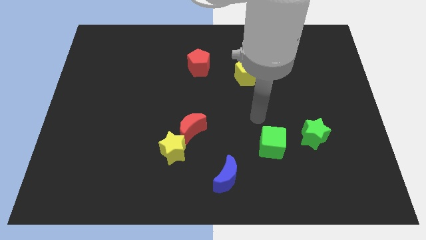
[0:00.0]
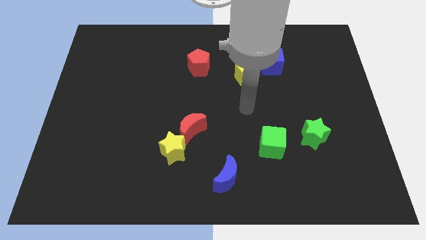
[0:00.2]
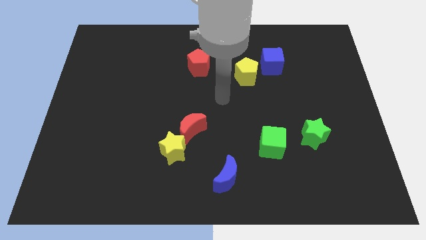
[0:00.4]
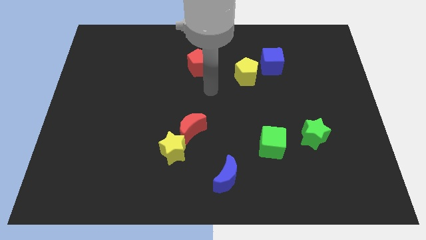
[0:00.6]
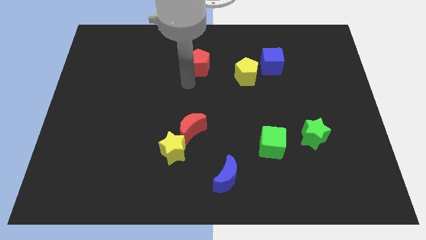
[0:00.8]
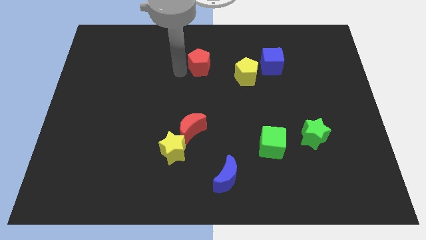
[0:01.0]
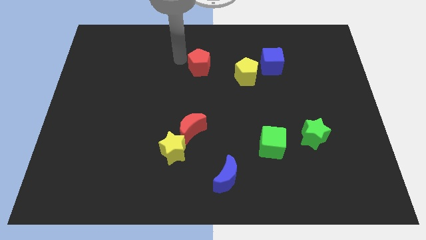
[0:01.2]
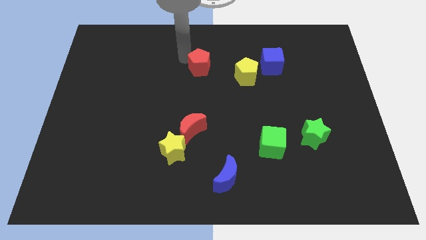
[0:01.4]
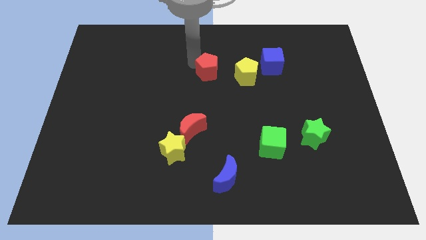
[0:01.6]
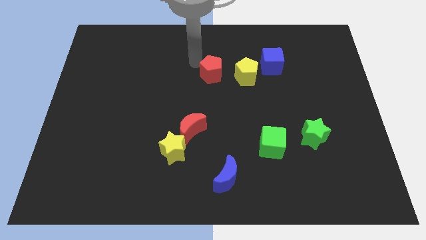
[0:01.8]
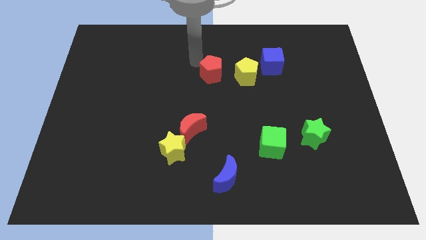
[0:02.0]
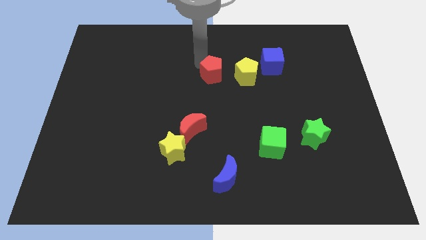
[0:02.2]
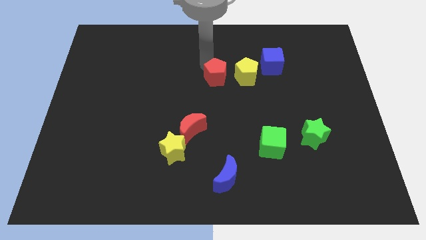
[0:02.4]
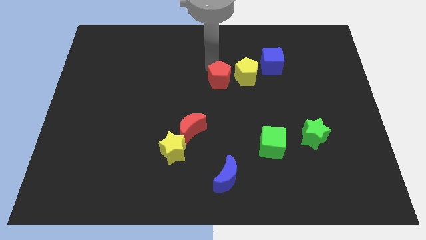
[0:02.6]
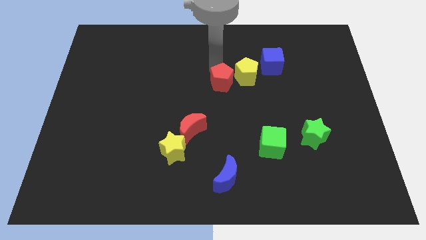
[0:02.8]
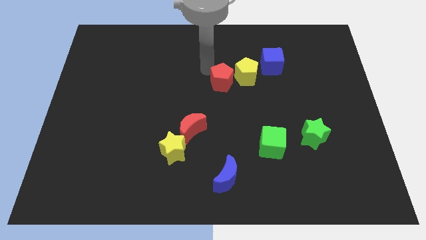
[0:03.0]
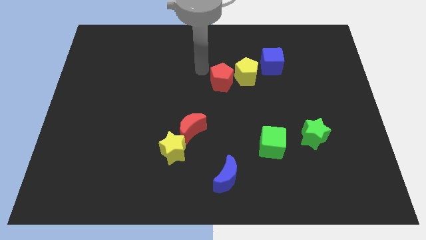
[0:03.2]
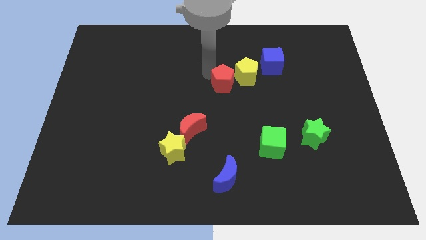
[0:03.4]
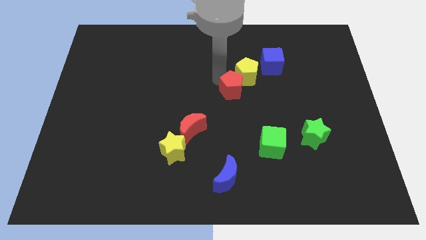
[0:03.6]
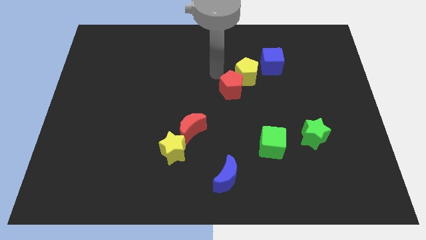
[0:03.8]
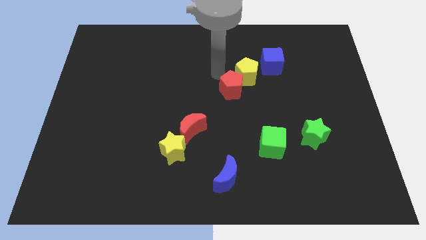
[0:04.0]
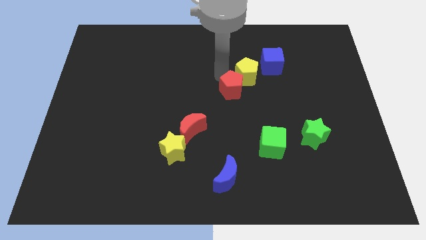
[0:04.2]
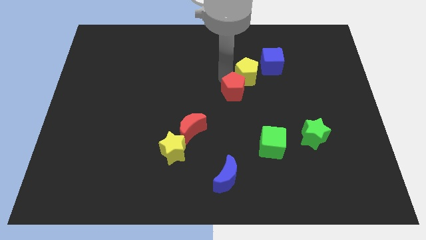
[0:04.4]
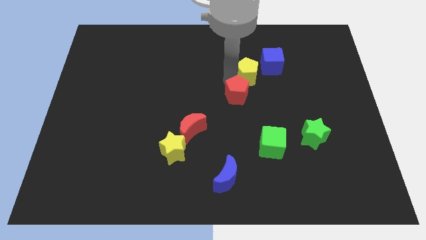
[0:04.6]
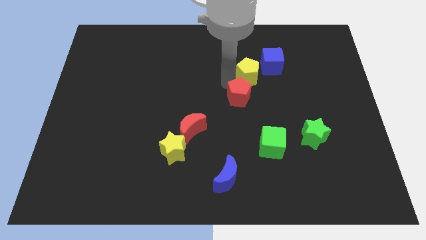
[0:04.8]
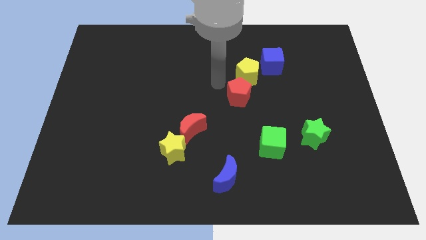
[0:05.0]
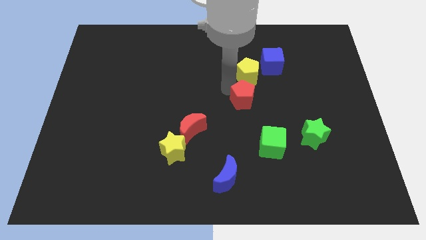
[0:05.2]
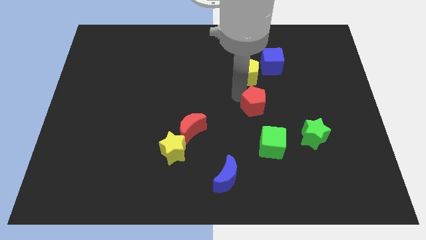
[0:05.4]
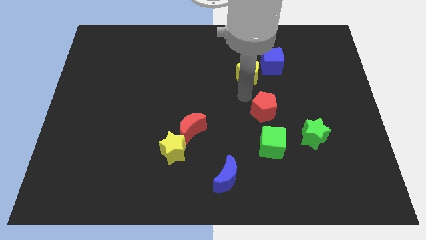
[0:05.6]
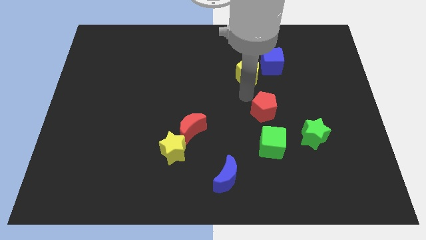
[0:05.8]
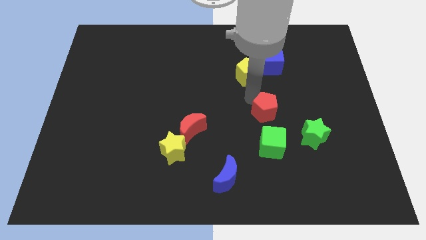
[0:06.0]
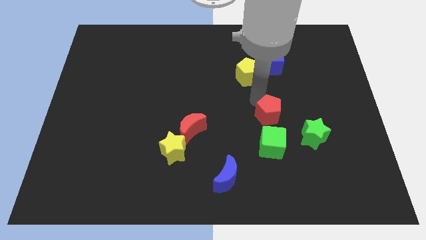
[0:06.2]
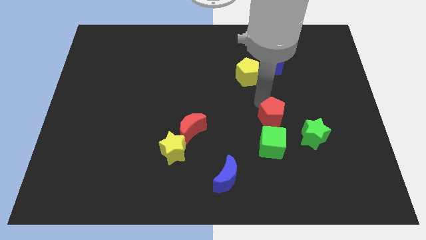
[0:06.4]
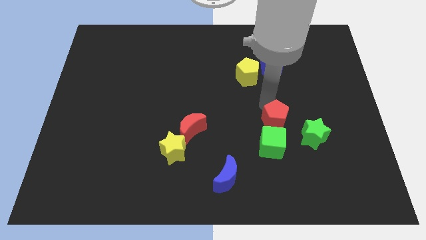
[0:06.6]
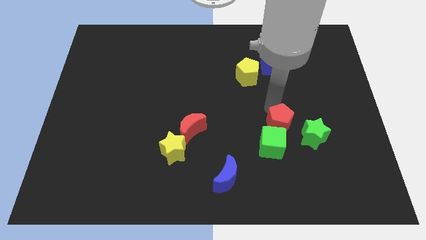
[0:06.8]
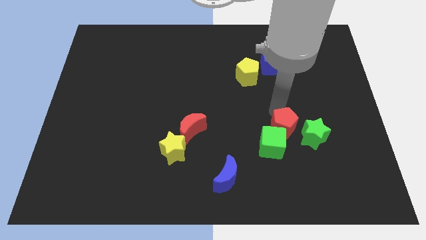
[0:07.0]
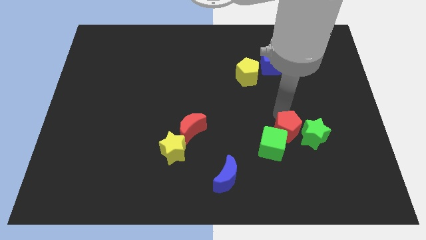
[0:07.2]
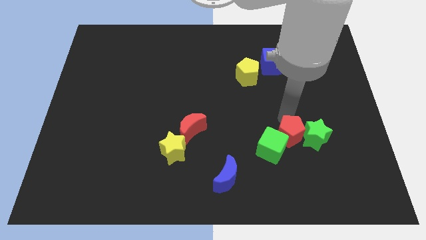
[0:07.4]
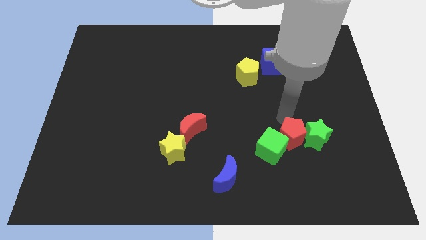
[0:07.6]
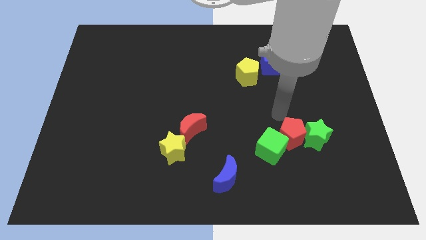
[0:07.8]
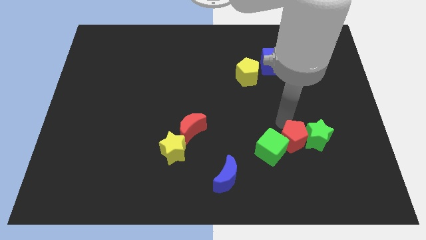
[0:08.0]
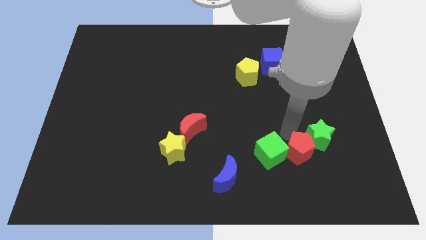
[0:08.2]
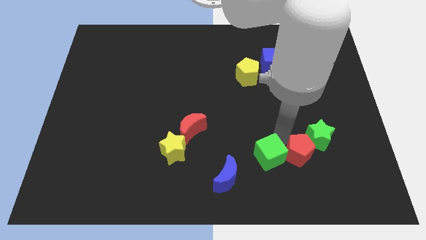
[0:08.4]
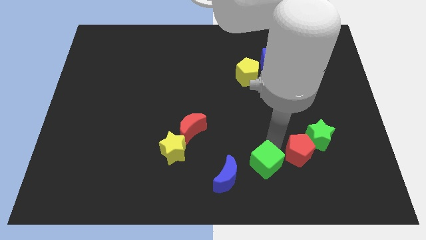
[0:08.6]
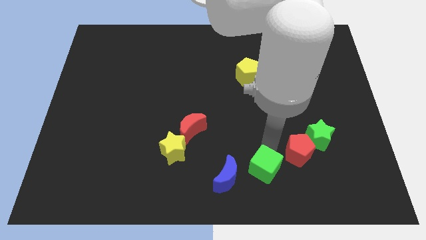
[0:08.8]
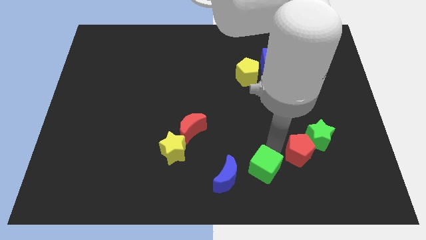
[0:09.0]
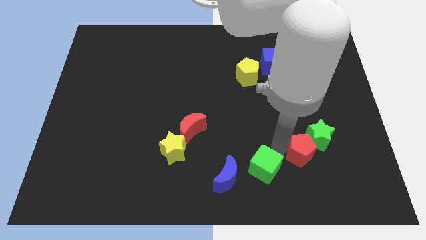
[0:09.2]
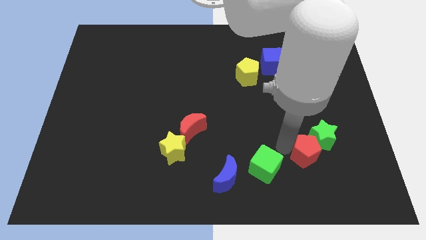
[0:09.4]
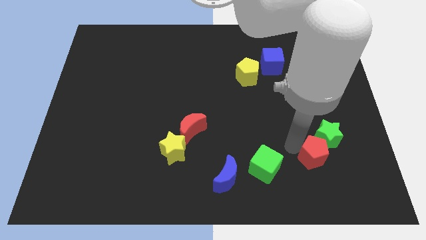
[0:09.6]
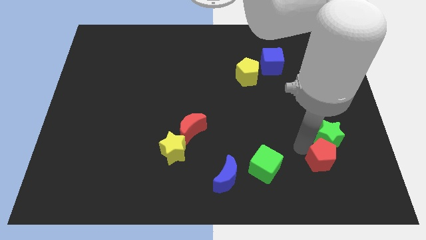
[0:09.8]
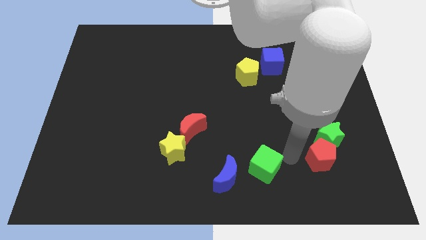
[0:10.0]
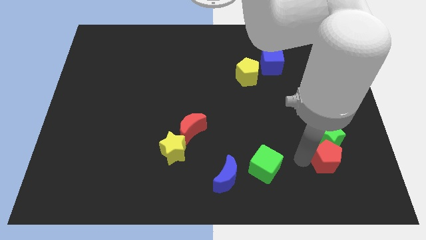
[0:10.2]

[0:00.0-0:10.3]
move the red pentagon to the bottom right side of the green star

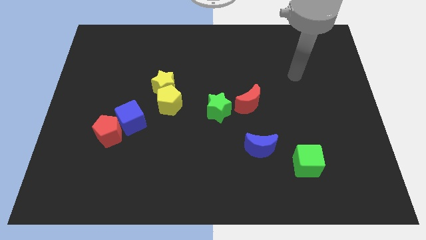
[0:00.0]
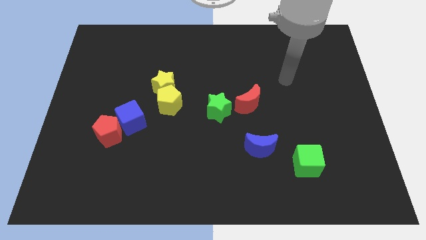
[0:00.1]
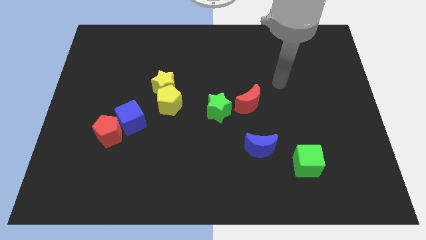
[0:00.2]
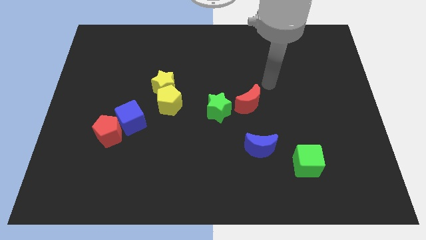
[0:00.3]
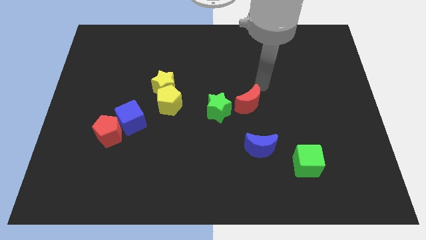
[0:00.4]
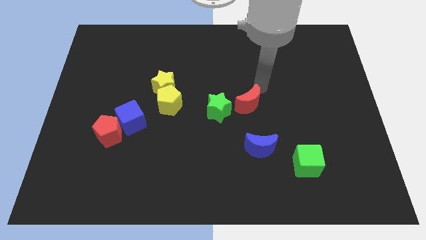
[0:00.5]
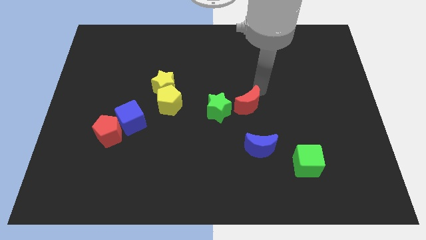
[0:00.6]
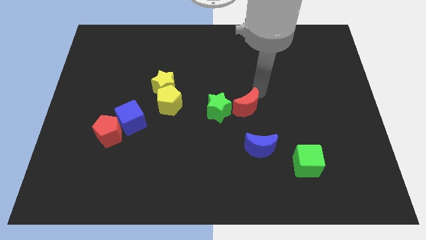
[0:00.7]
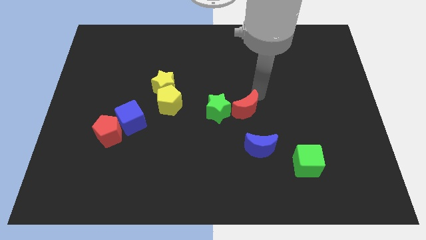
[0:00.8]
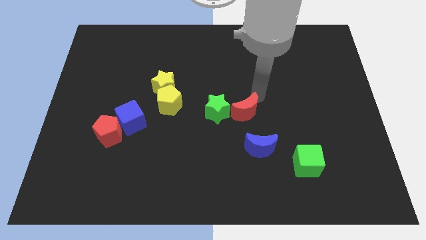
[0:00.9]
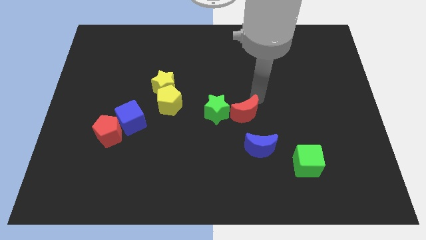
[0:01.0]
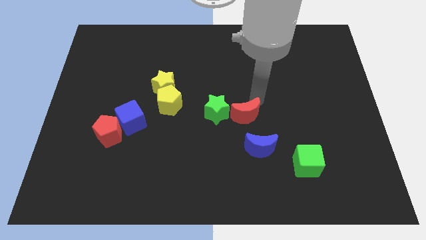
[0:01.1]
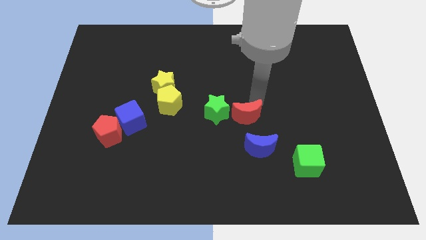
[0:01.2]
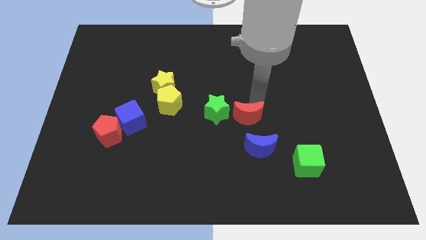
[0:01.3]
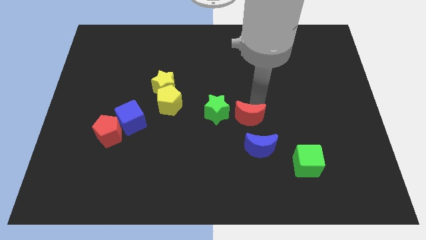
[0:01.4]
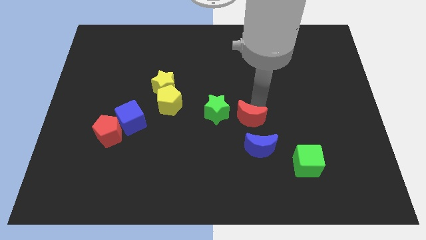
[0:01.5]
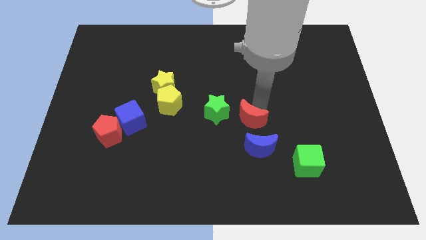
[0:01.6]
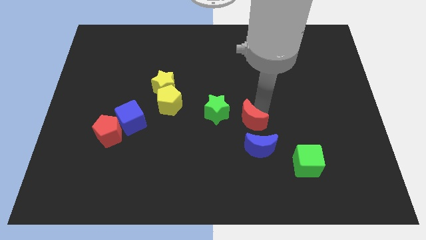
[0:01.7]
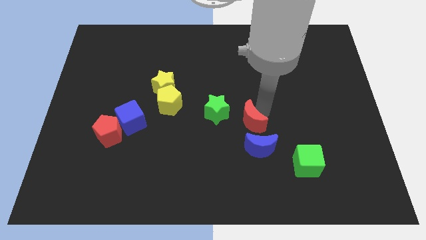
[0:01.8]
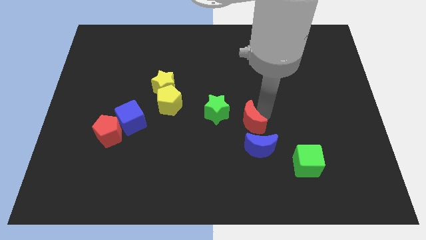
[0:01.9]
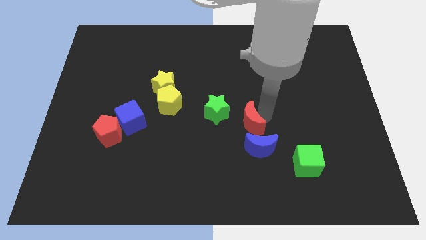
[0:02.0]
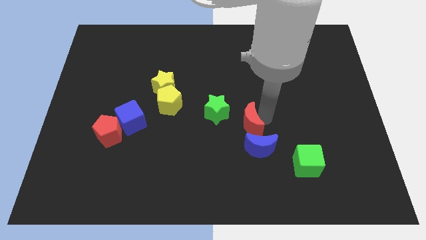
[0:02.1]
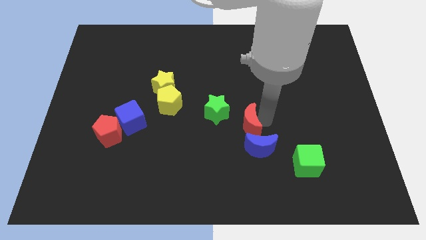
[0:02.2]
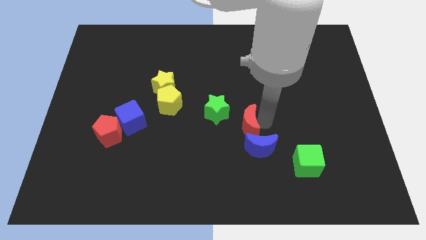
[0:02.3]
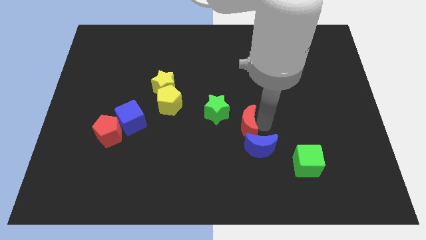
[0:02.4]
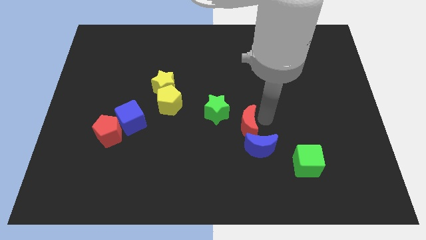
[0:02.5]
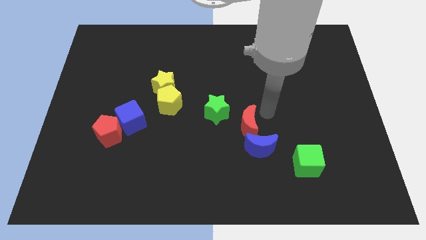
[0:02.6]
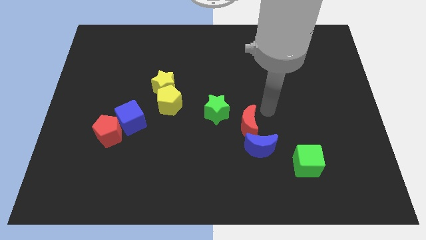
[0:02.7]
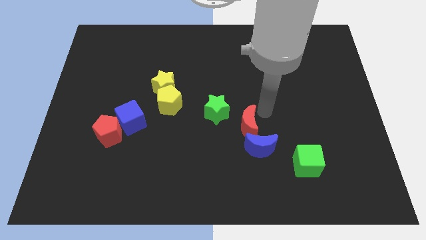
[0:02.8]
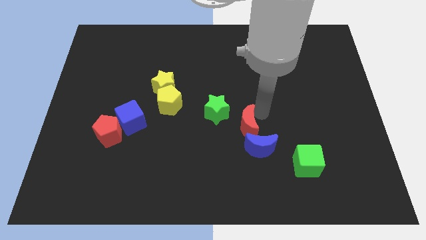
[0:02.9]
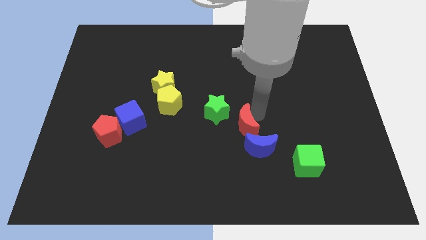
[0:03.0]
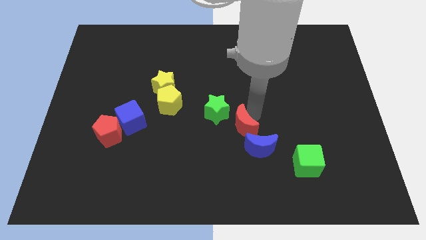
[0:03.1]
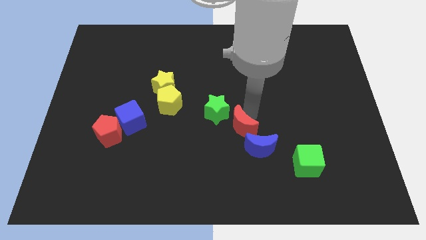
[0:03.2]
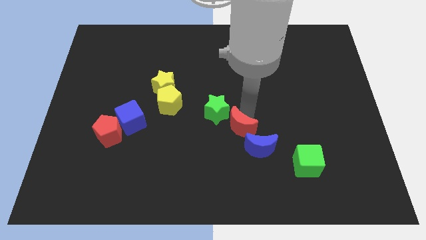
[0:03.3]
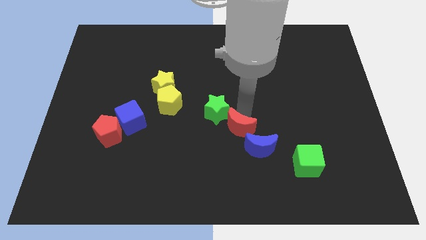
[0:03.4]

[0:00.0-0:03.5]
slide the red moon to the bottom side of the green star
